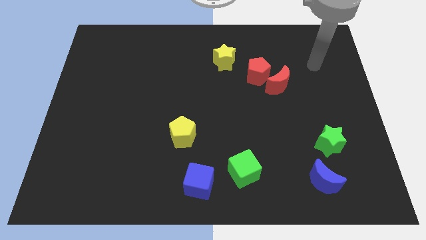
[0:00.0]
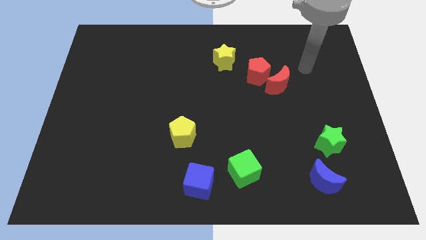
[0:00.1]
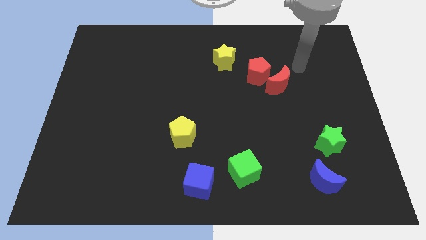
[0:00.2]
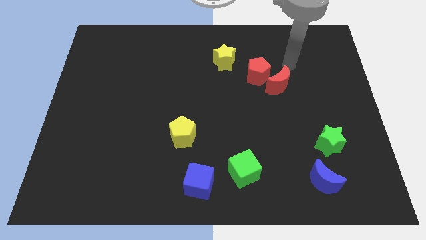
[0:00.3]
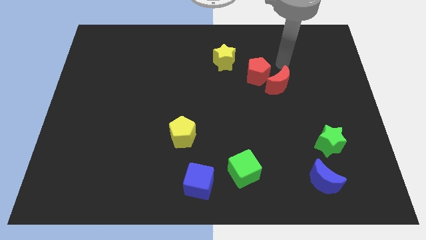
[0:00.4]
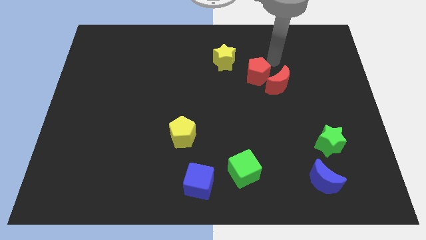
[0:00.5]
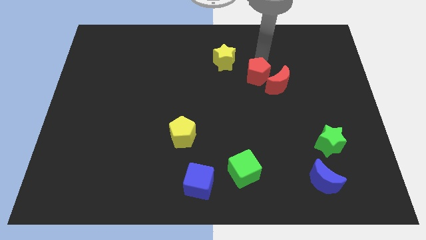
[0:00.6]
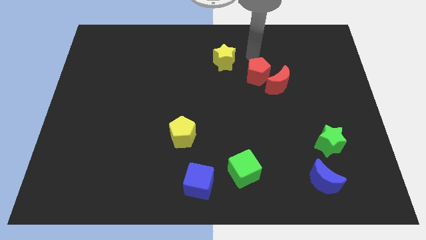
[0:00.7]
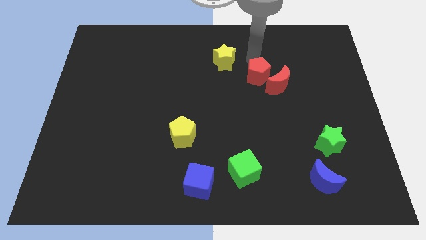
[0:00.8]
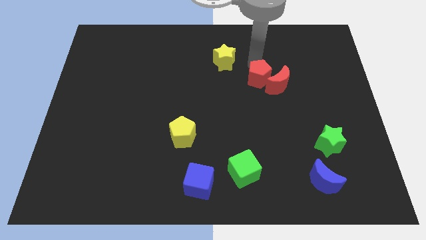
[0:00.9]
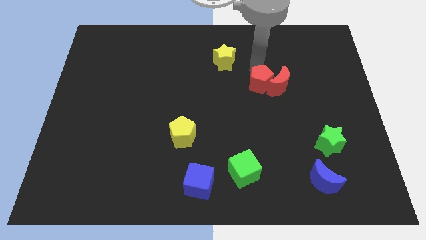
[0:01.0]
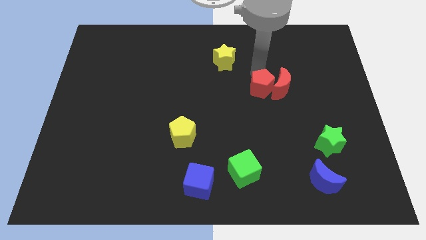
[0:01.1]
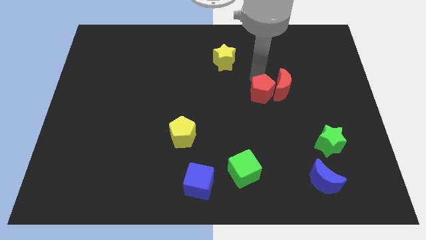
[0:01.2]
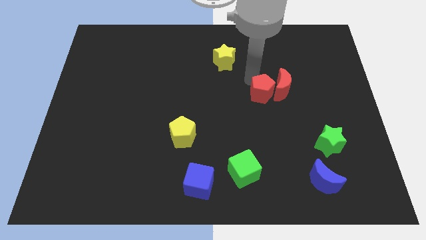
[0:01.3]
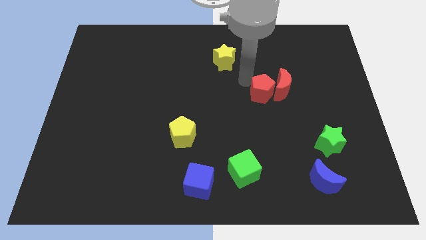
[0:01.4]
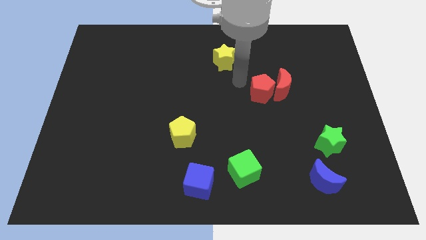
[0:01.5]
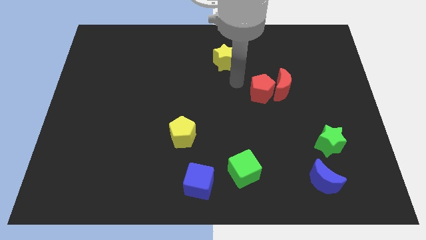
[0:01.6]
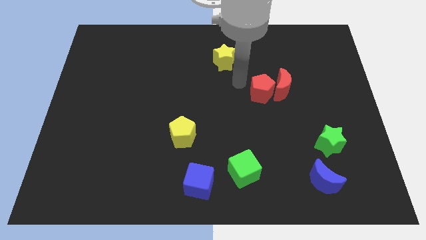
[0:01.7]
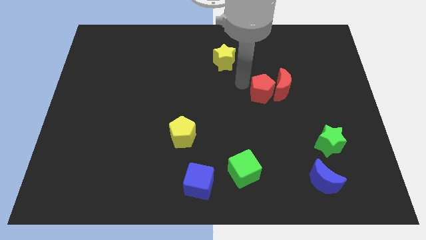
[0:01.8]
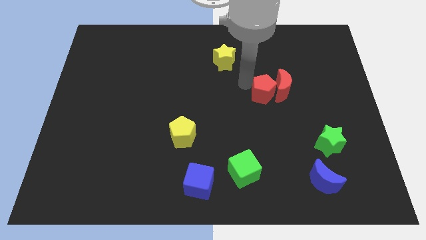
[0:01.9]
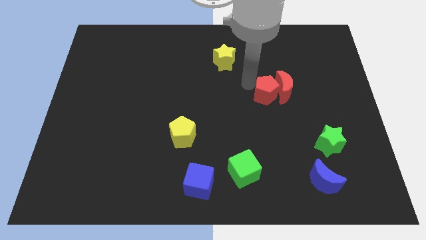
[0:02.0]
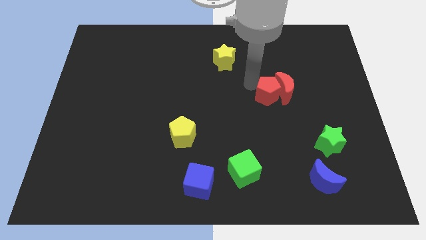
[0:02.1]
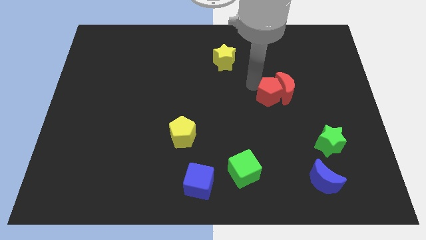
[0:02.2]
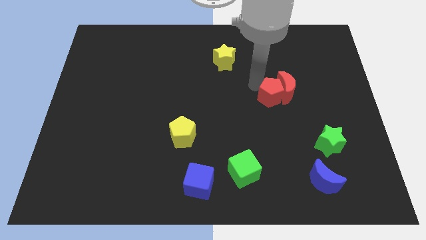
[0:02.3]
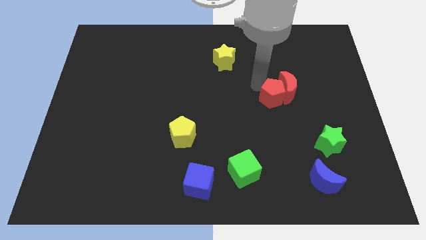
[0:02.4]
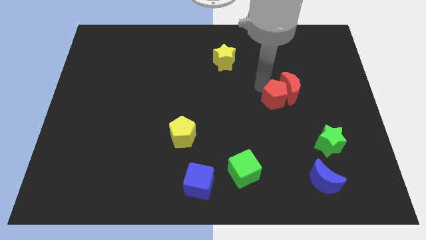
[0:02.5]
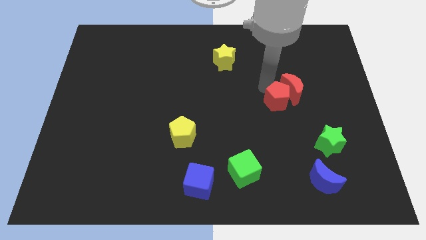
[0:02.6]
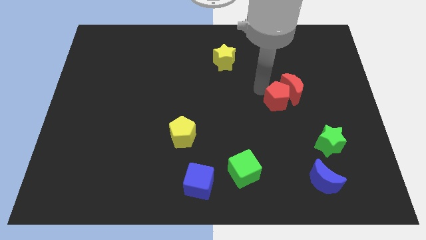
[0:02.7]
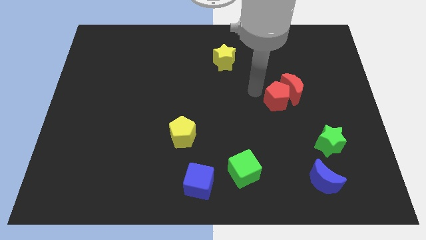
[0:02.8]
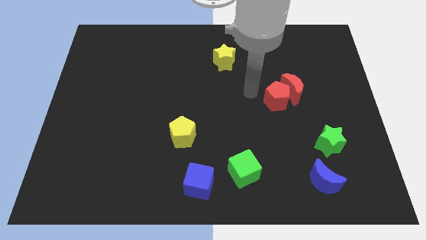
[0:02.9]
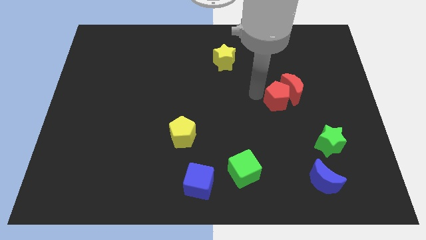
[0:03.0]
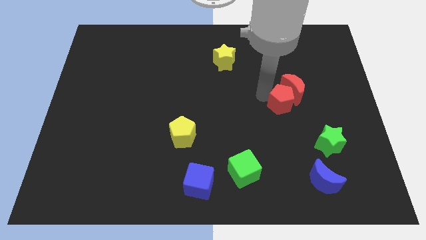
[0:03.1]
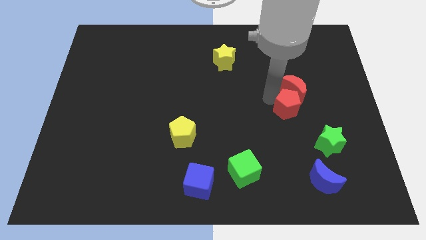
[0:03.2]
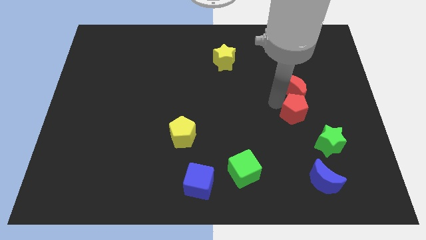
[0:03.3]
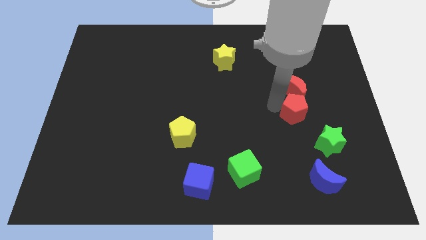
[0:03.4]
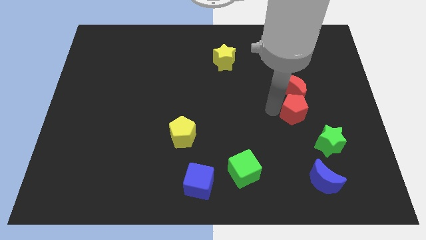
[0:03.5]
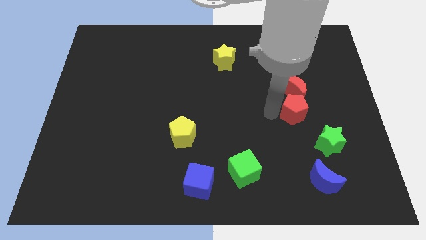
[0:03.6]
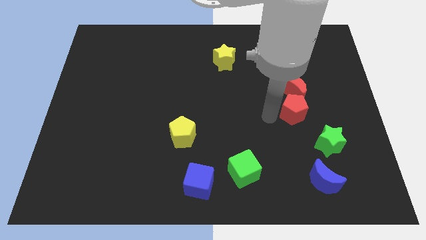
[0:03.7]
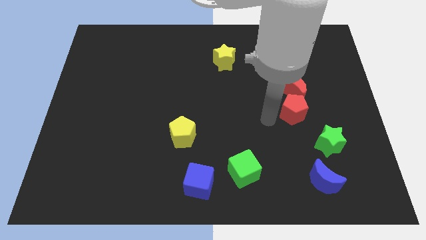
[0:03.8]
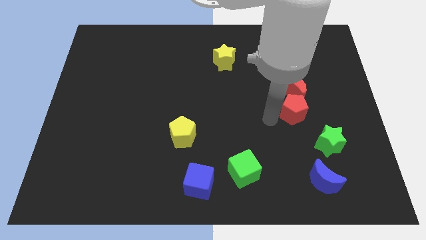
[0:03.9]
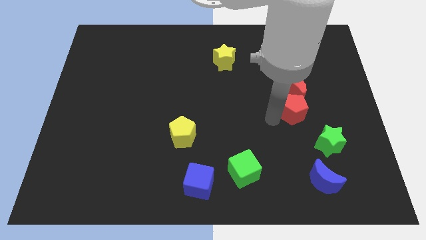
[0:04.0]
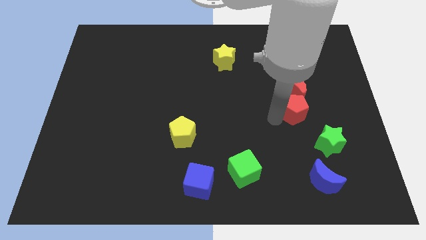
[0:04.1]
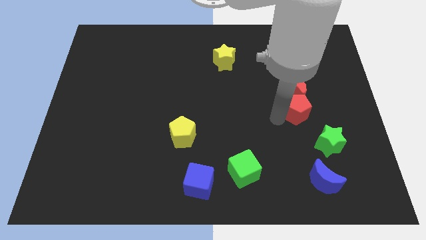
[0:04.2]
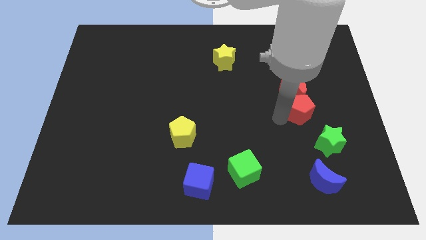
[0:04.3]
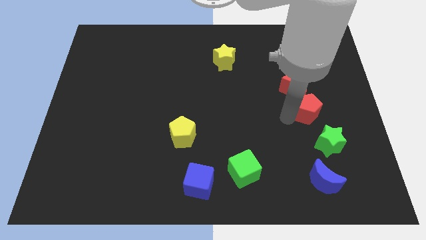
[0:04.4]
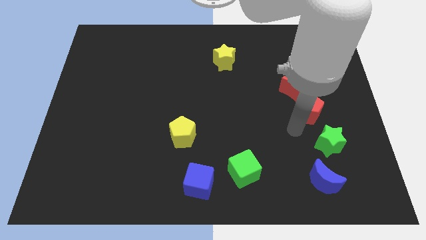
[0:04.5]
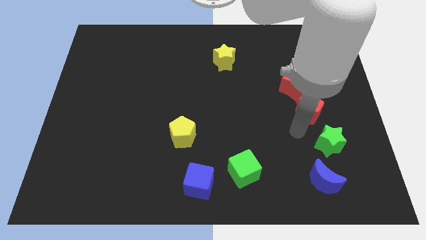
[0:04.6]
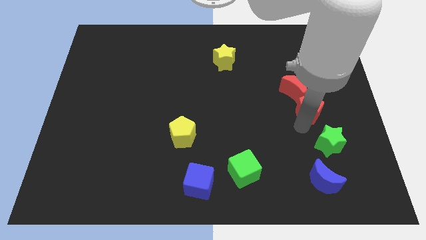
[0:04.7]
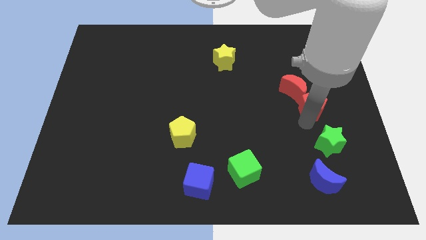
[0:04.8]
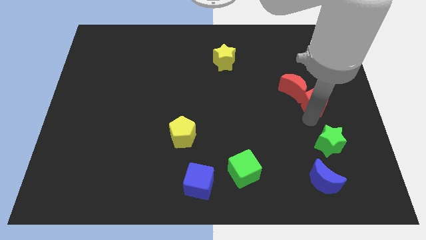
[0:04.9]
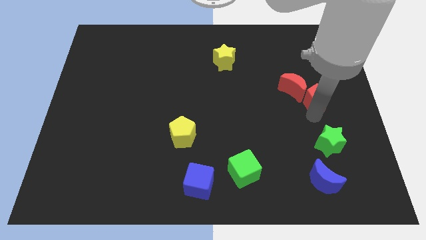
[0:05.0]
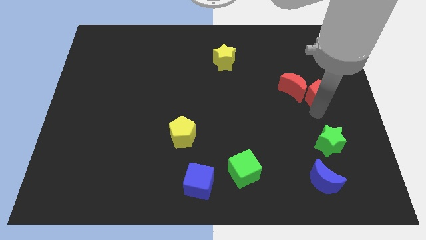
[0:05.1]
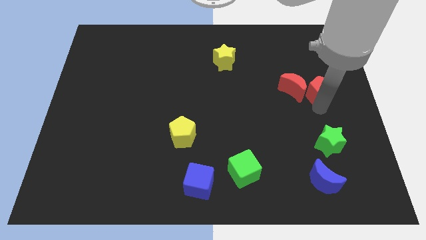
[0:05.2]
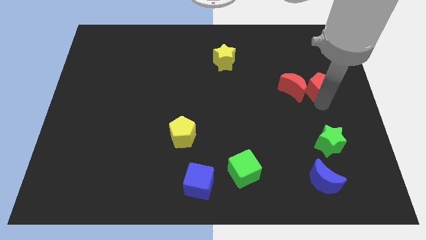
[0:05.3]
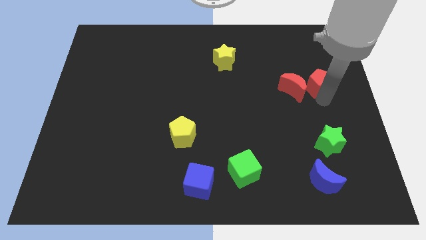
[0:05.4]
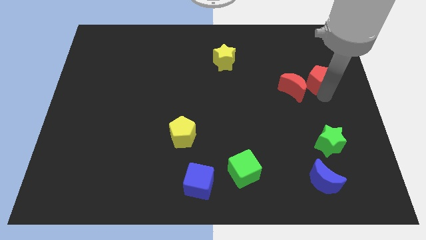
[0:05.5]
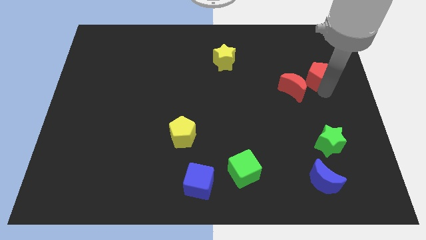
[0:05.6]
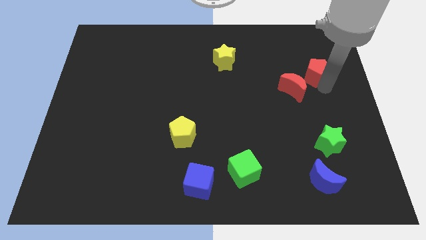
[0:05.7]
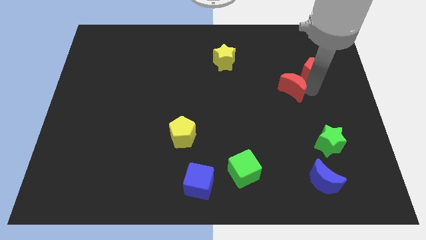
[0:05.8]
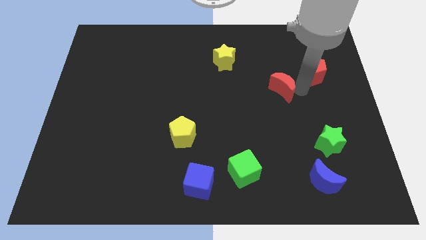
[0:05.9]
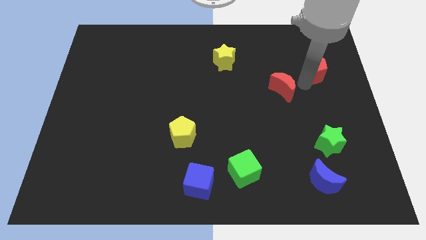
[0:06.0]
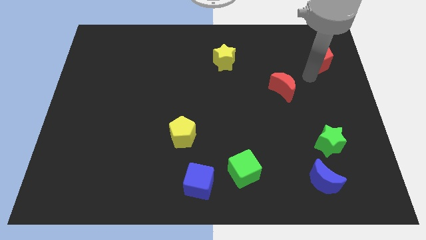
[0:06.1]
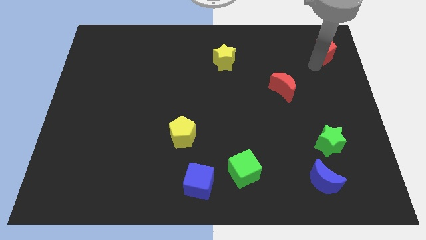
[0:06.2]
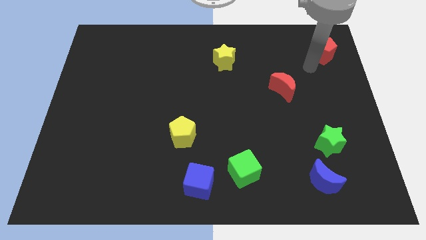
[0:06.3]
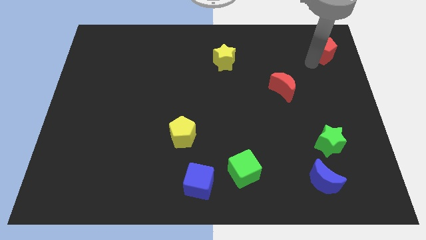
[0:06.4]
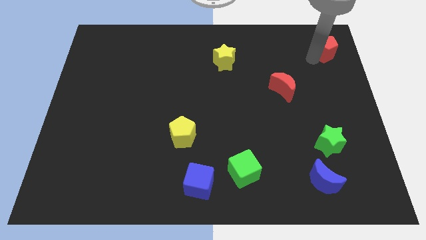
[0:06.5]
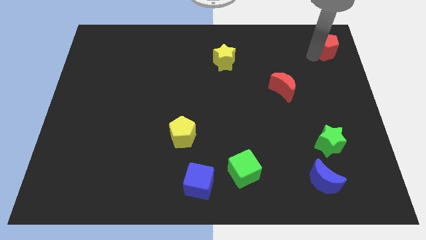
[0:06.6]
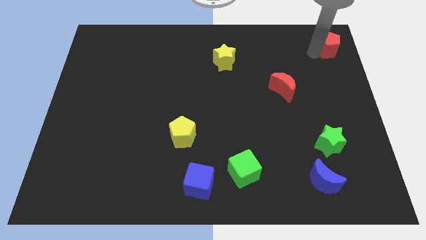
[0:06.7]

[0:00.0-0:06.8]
move the red pentagon to the top right
